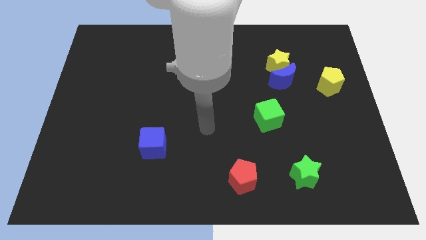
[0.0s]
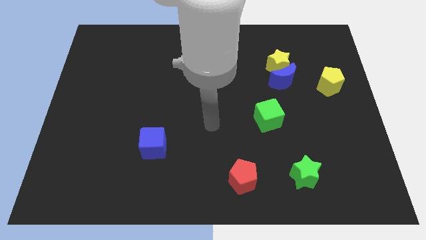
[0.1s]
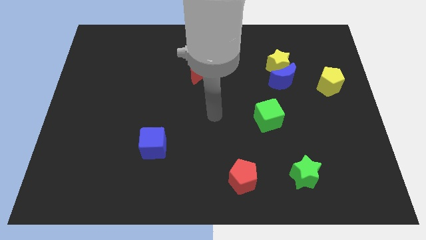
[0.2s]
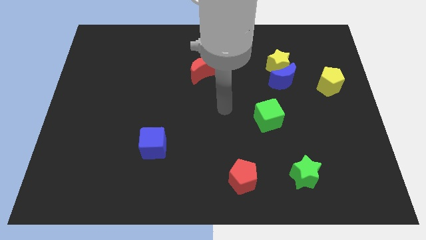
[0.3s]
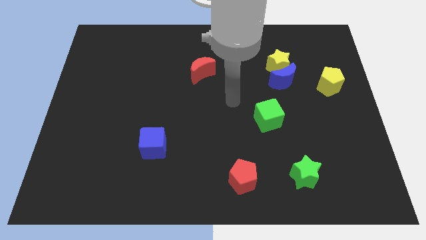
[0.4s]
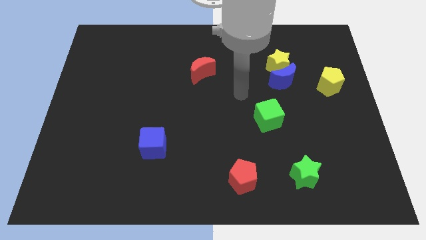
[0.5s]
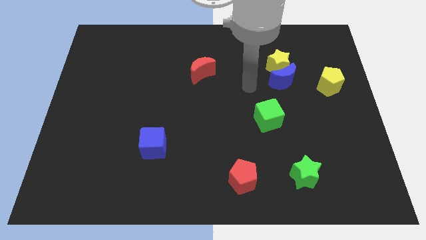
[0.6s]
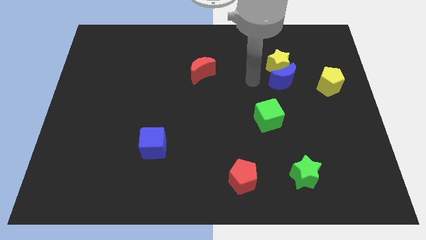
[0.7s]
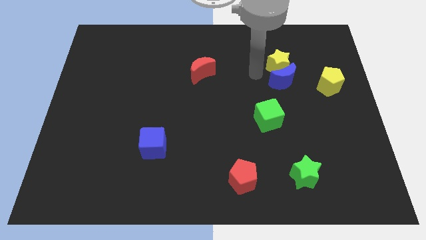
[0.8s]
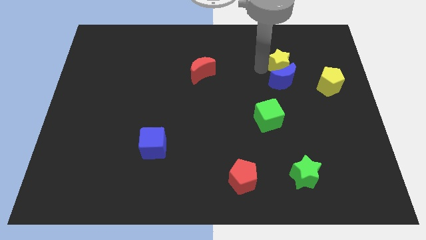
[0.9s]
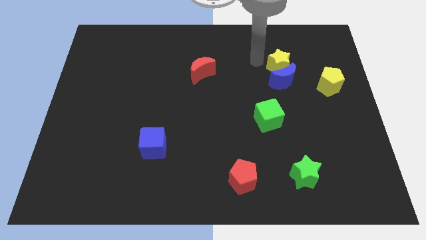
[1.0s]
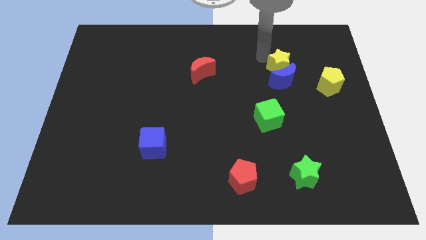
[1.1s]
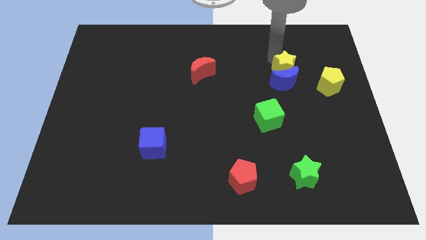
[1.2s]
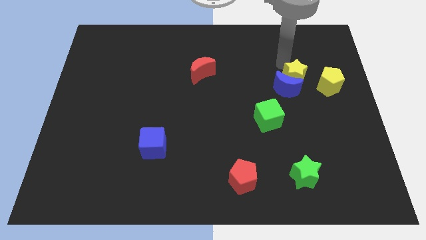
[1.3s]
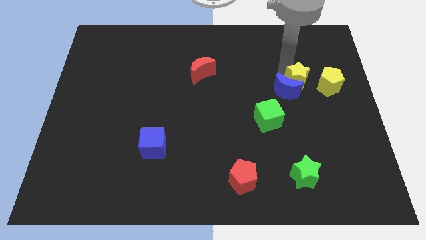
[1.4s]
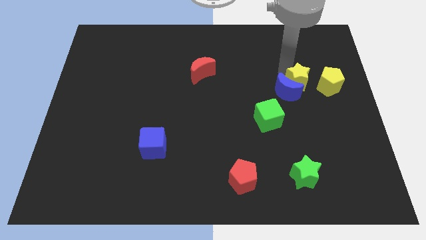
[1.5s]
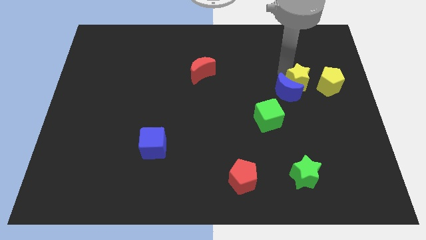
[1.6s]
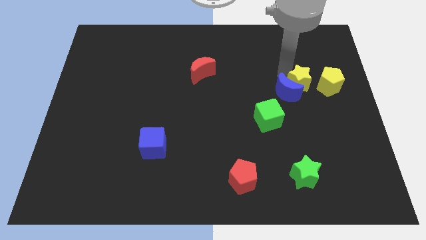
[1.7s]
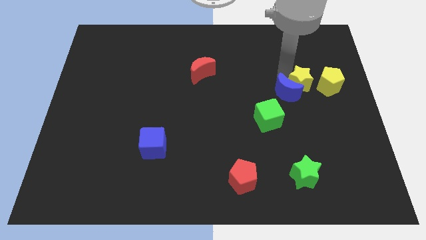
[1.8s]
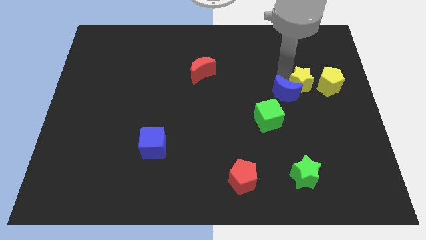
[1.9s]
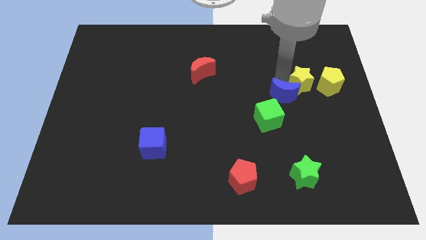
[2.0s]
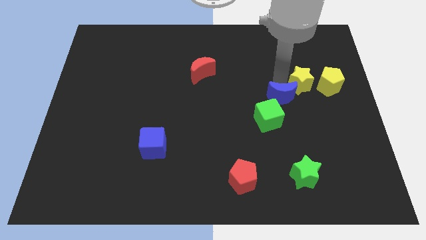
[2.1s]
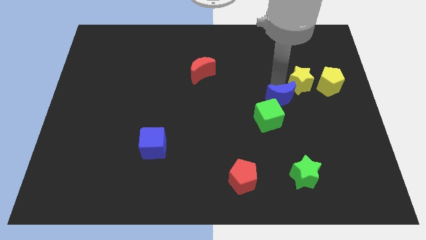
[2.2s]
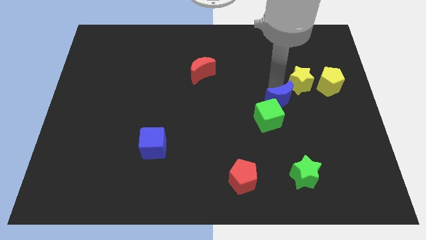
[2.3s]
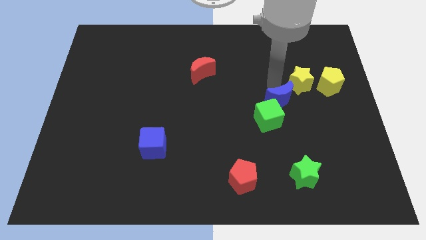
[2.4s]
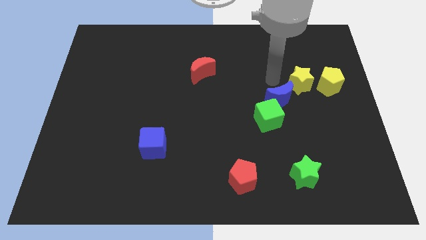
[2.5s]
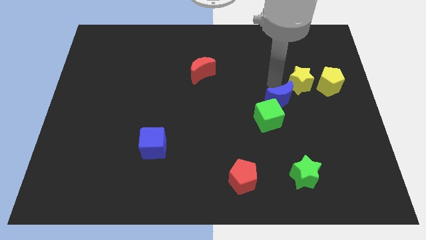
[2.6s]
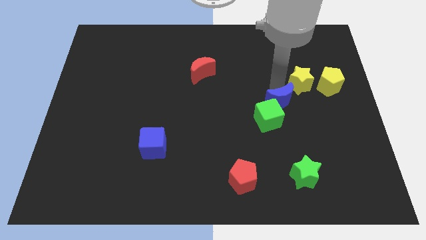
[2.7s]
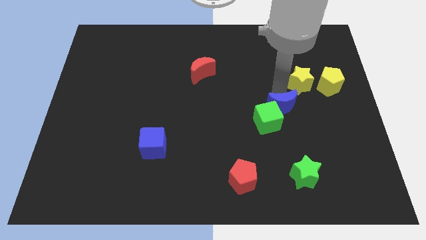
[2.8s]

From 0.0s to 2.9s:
slide the blue moon down a little

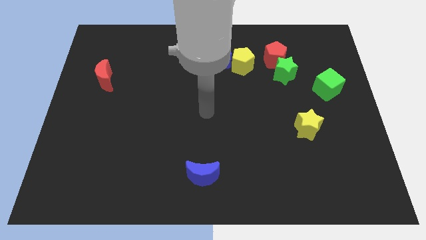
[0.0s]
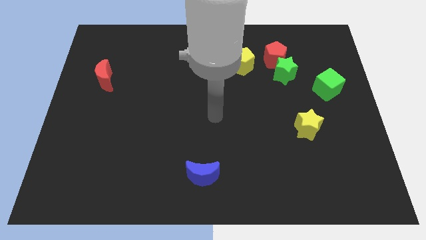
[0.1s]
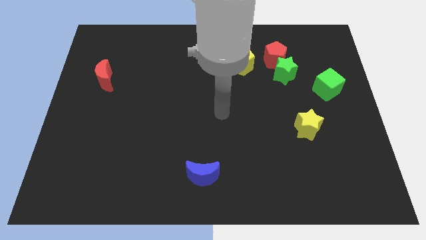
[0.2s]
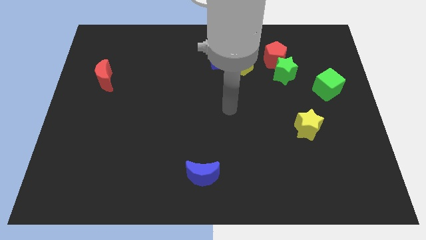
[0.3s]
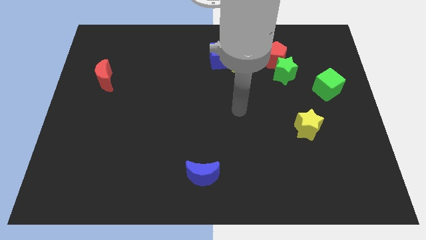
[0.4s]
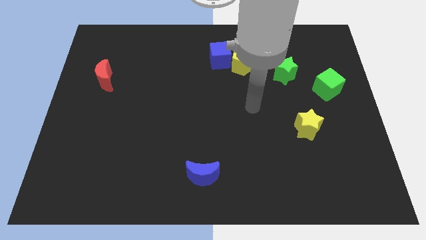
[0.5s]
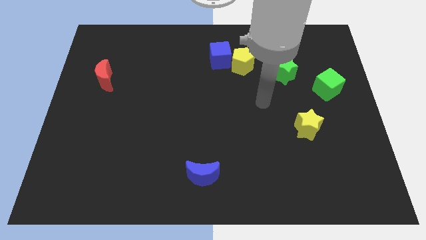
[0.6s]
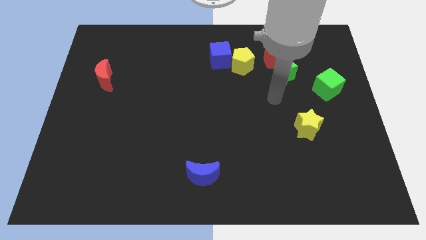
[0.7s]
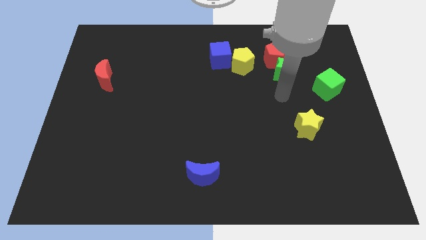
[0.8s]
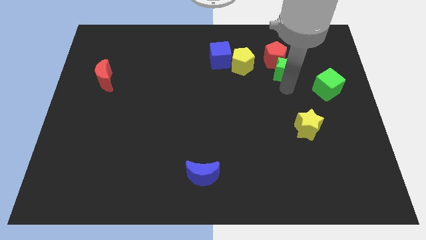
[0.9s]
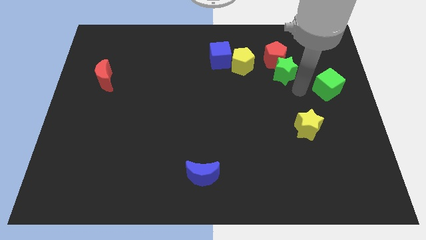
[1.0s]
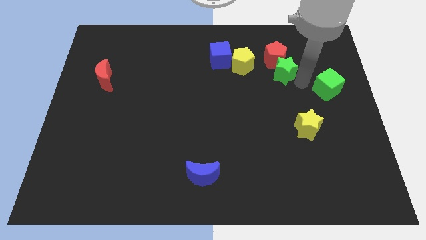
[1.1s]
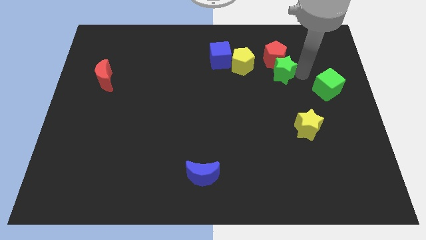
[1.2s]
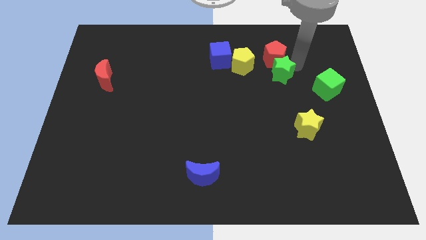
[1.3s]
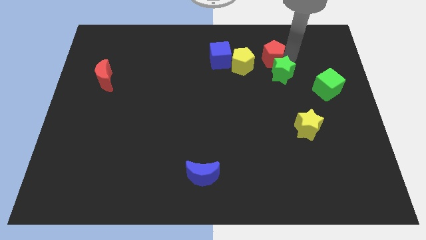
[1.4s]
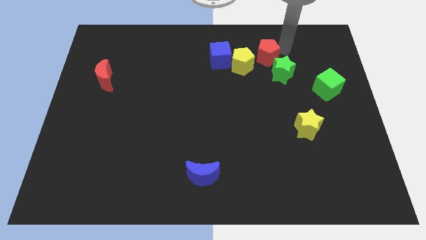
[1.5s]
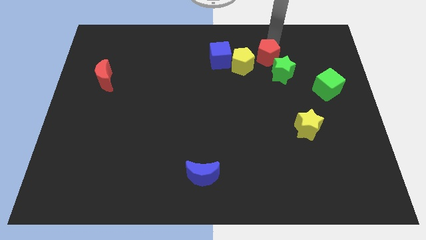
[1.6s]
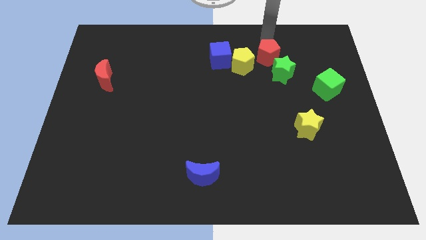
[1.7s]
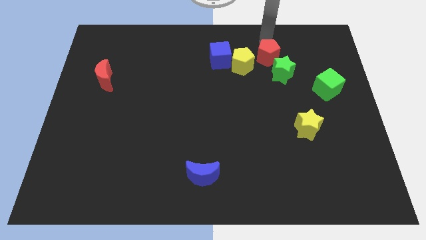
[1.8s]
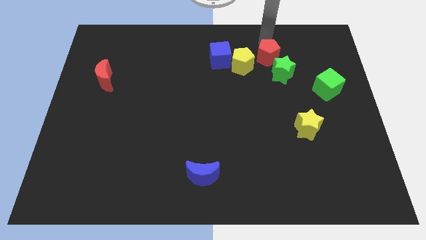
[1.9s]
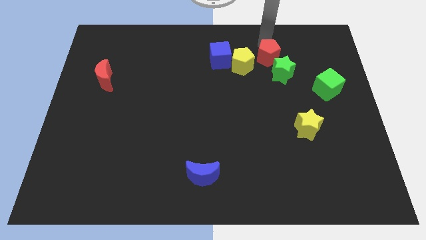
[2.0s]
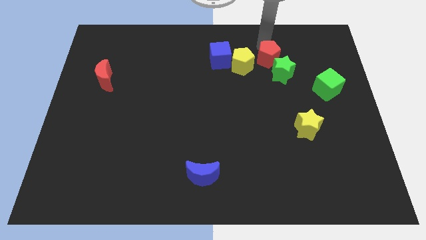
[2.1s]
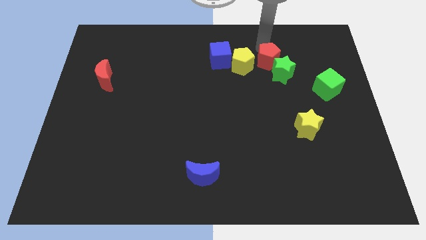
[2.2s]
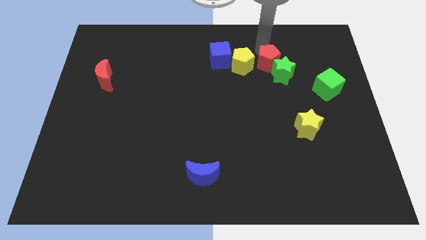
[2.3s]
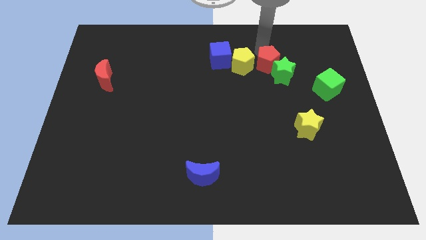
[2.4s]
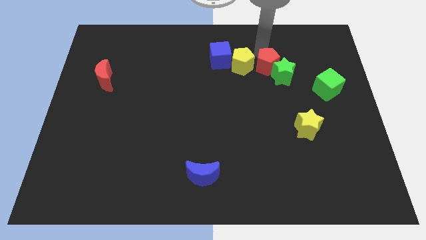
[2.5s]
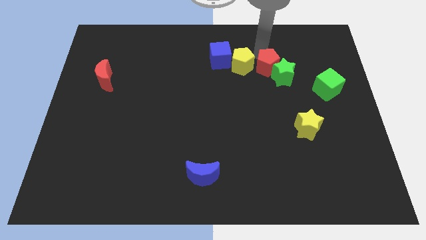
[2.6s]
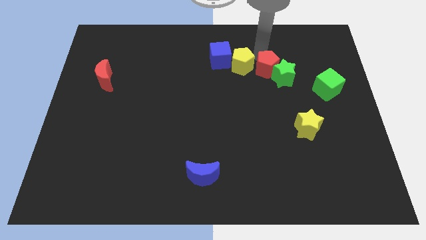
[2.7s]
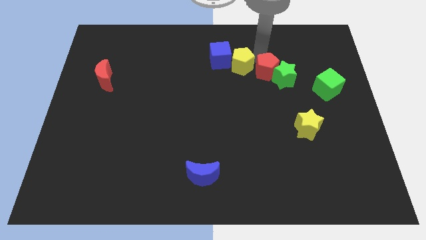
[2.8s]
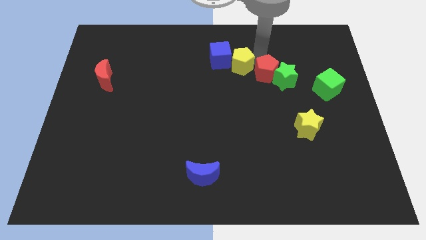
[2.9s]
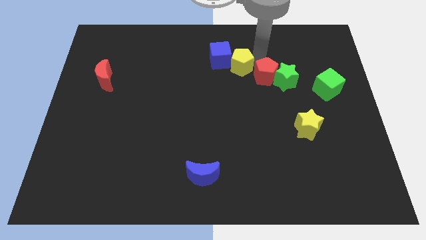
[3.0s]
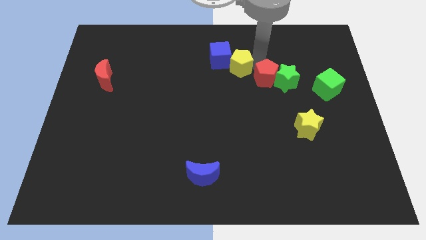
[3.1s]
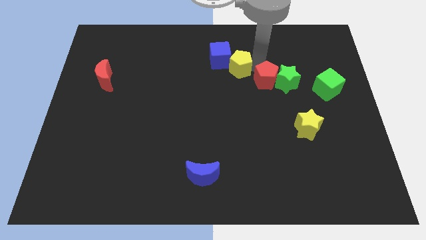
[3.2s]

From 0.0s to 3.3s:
slide the red pentagon a bit downwards

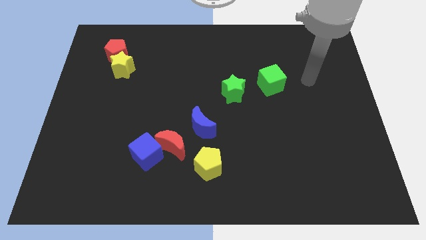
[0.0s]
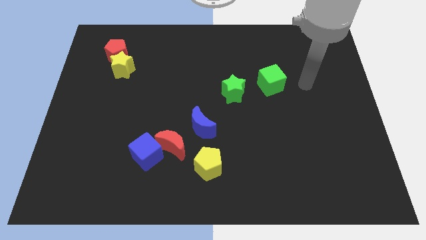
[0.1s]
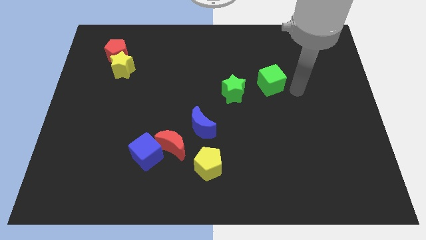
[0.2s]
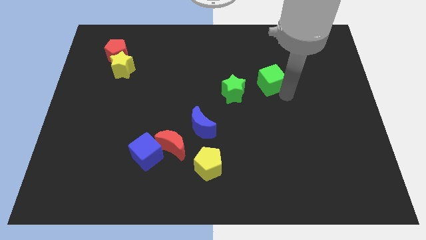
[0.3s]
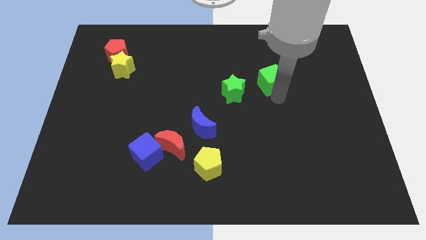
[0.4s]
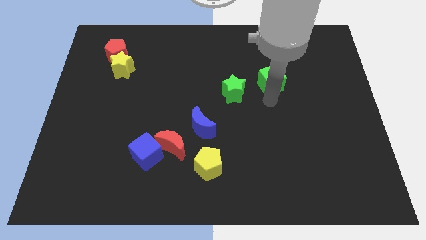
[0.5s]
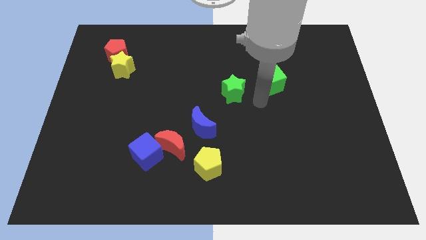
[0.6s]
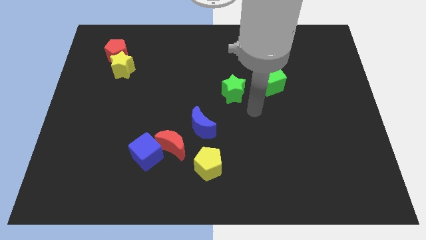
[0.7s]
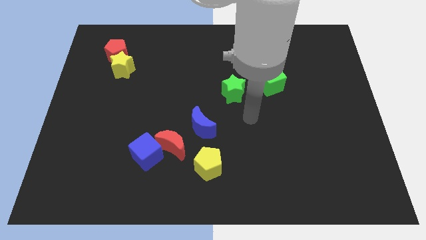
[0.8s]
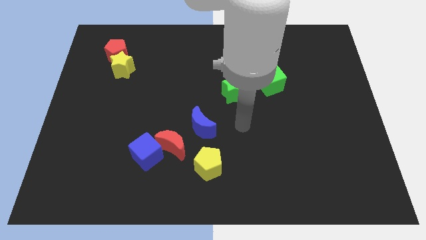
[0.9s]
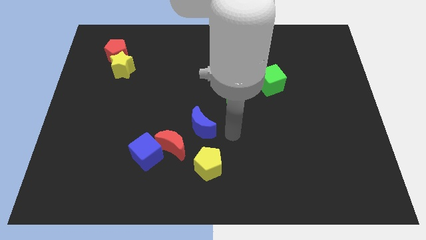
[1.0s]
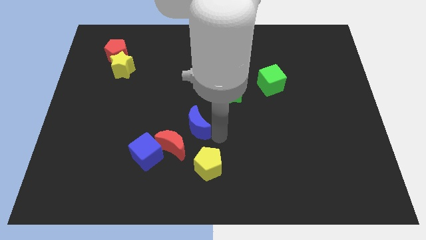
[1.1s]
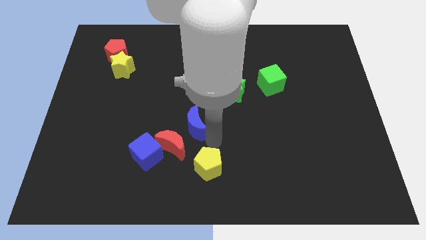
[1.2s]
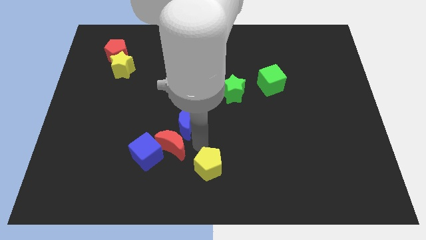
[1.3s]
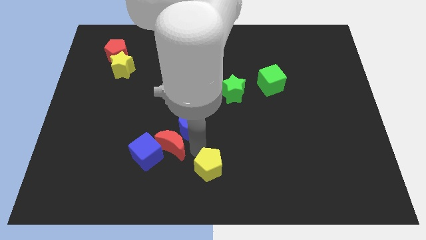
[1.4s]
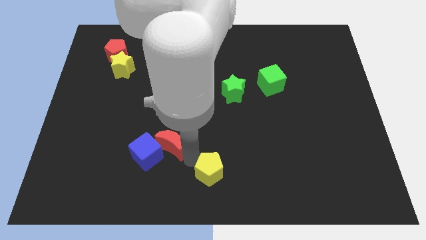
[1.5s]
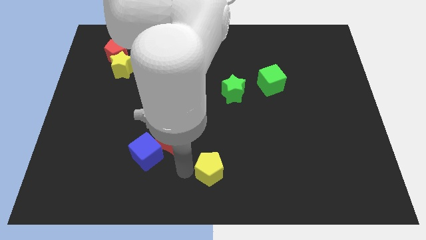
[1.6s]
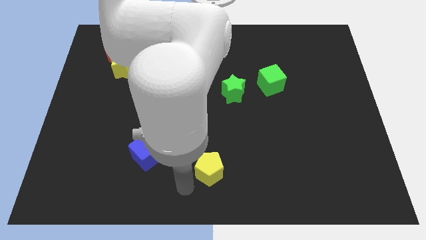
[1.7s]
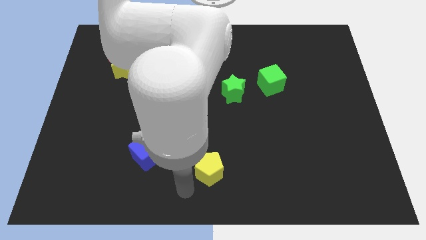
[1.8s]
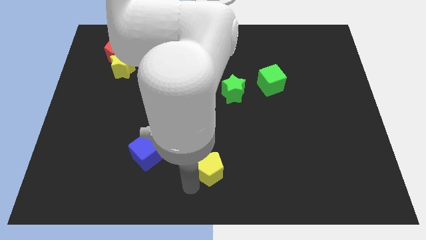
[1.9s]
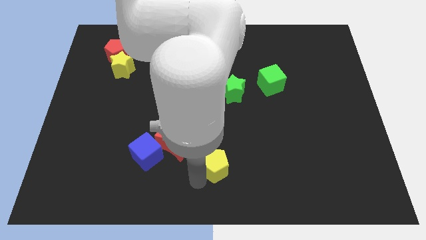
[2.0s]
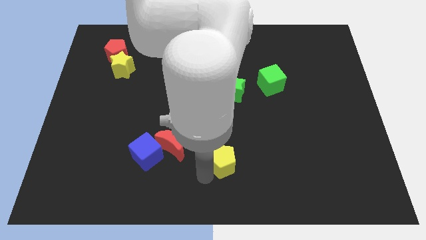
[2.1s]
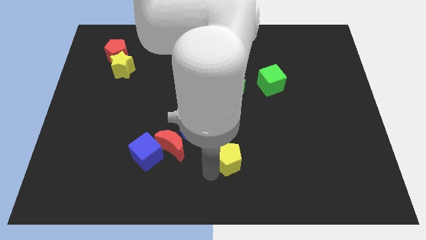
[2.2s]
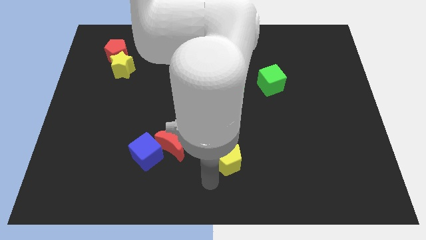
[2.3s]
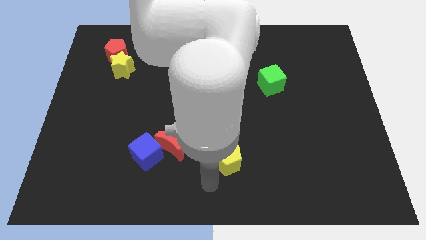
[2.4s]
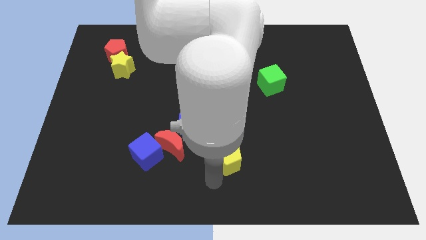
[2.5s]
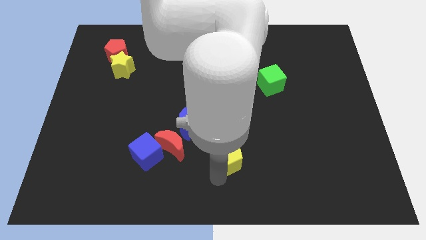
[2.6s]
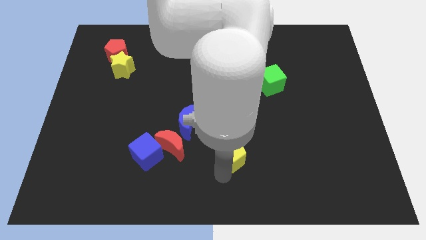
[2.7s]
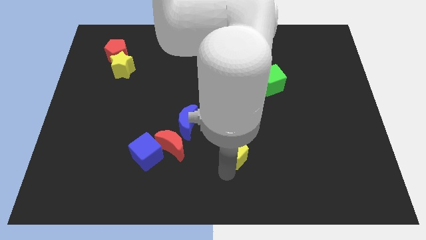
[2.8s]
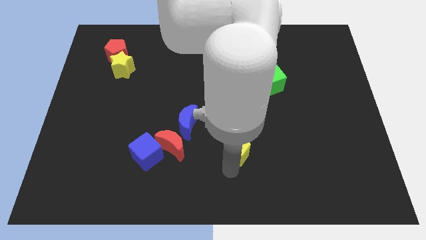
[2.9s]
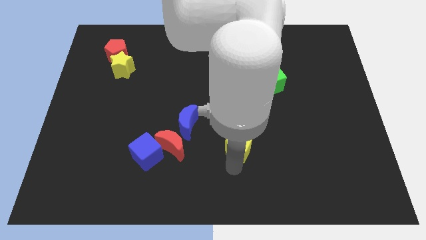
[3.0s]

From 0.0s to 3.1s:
push the yellow pentagon a bit up and then right
